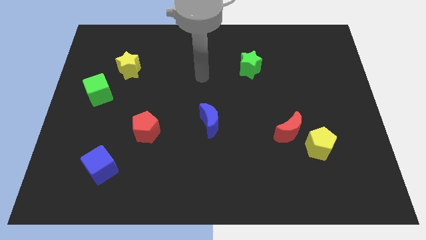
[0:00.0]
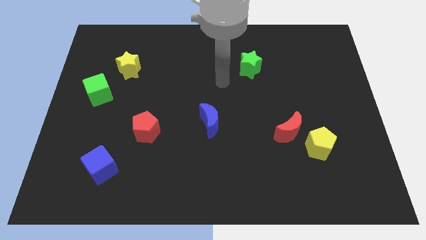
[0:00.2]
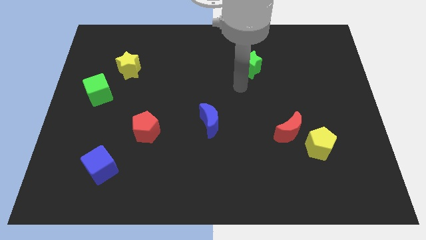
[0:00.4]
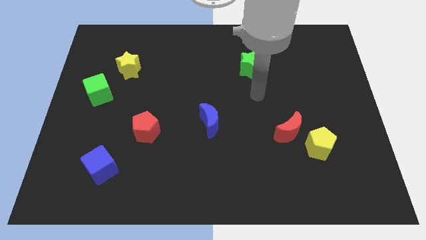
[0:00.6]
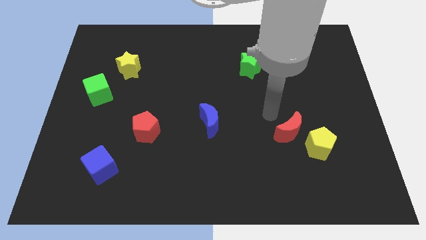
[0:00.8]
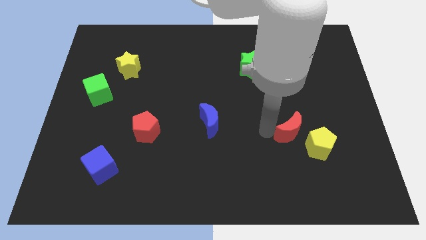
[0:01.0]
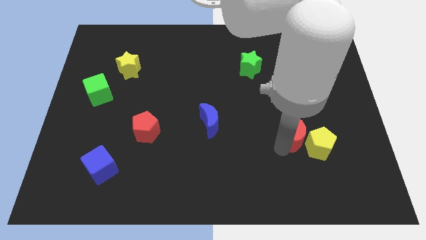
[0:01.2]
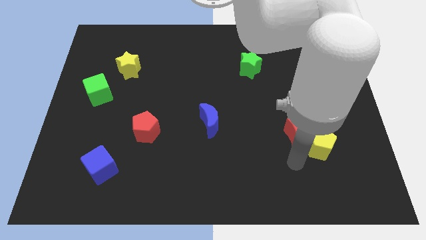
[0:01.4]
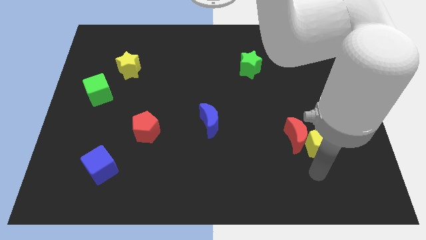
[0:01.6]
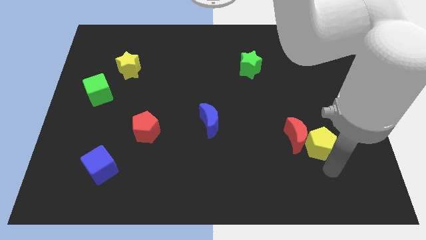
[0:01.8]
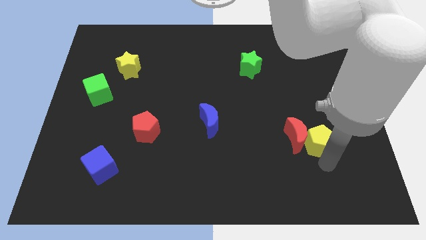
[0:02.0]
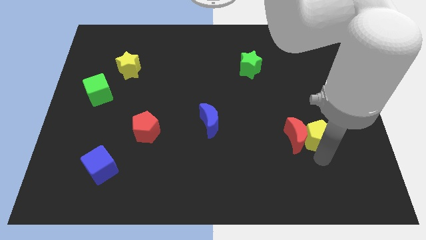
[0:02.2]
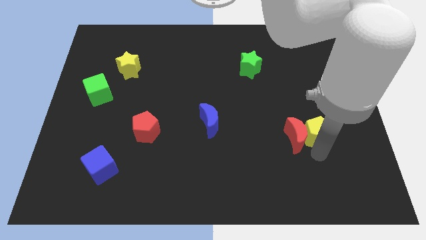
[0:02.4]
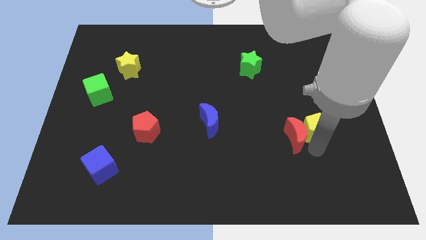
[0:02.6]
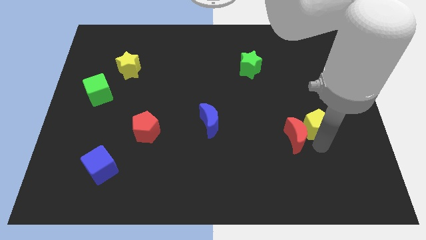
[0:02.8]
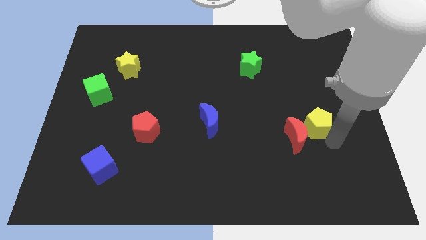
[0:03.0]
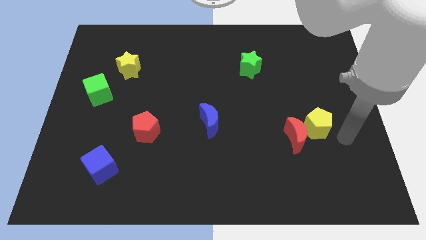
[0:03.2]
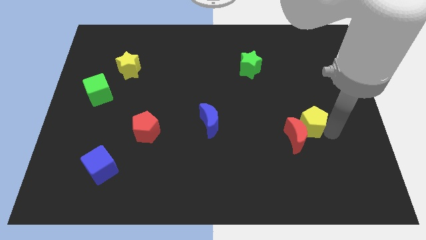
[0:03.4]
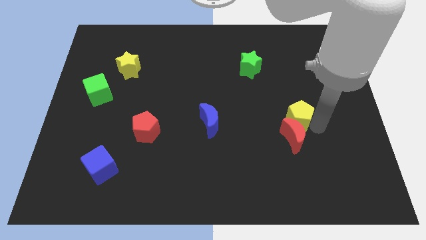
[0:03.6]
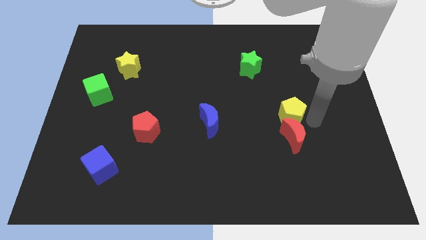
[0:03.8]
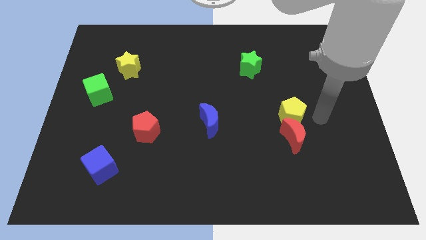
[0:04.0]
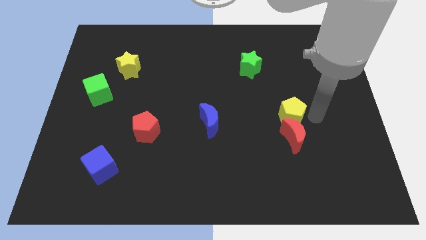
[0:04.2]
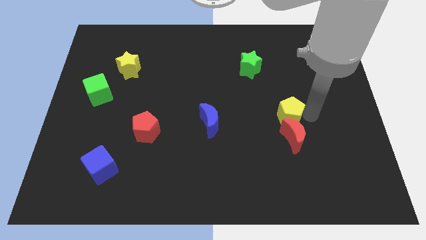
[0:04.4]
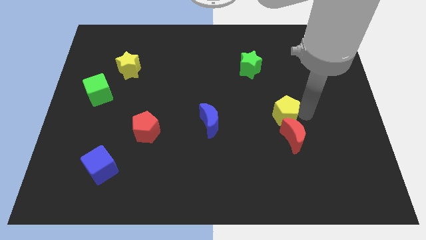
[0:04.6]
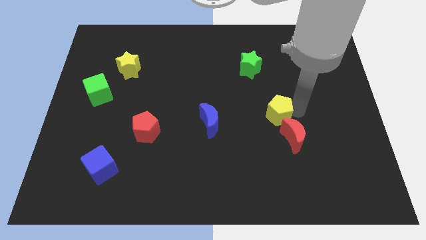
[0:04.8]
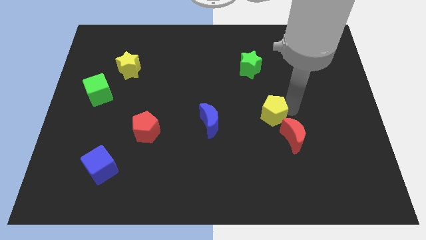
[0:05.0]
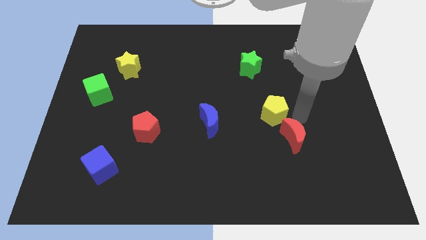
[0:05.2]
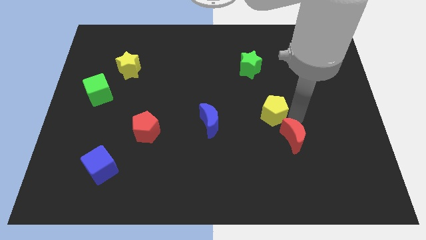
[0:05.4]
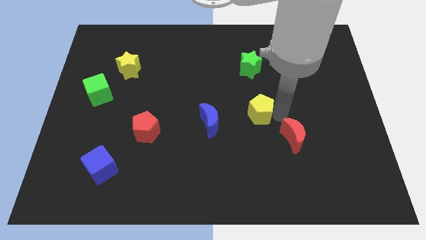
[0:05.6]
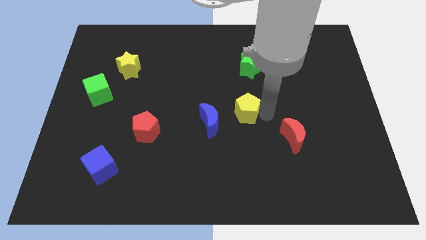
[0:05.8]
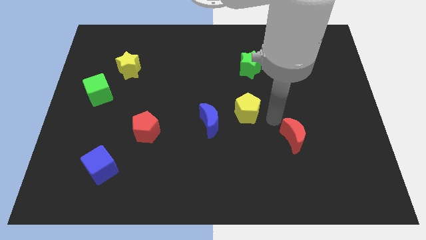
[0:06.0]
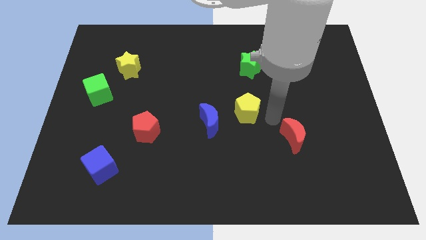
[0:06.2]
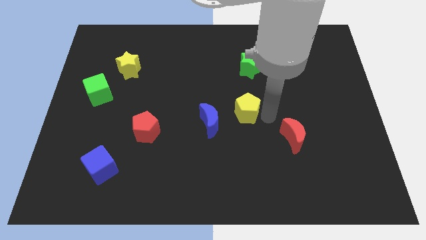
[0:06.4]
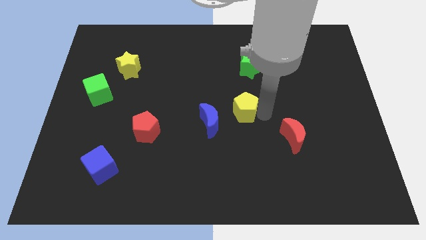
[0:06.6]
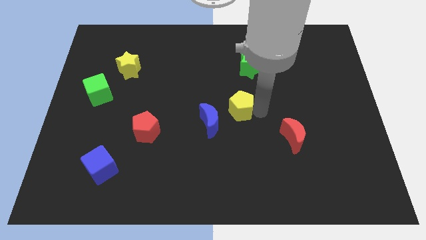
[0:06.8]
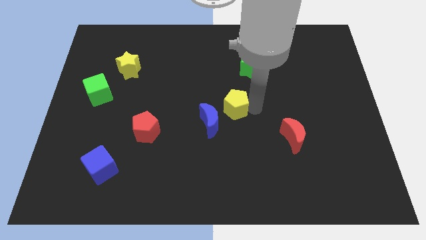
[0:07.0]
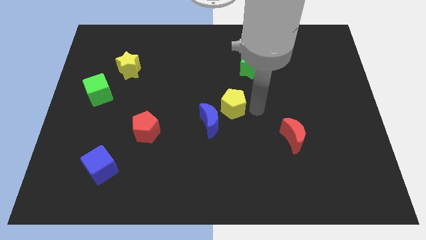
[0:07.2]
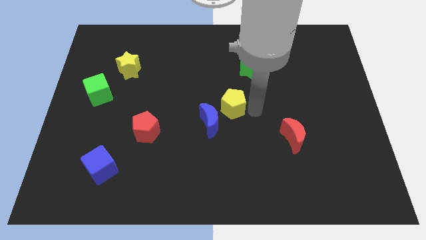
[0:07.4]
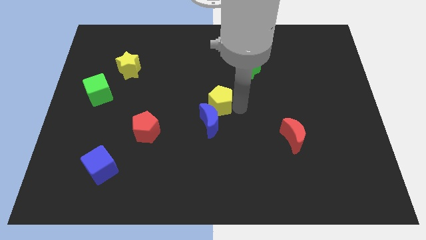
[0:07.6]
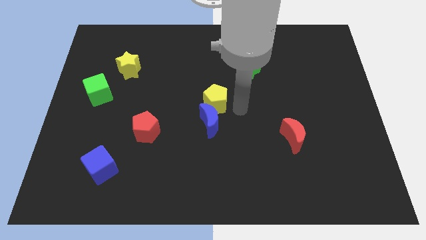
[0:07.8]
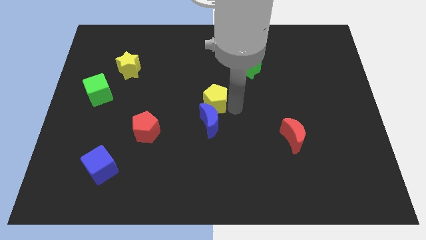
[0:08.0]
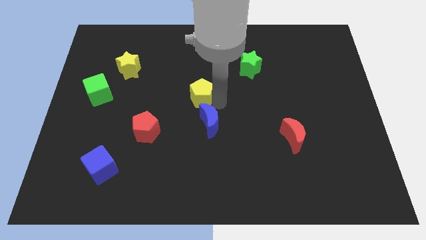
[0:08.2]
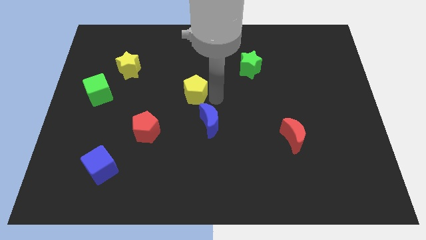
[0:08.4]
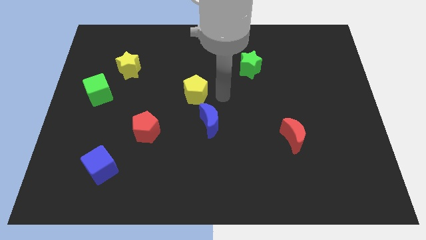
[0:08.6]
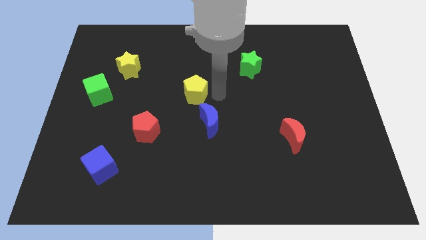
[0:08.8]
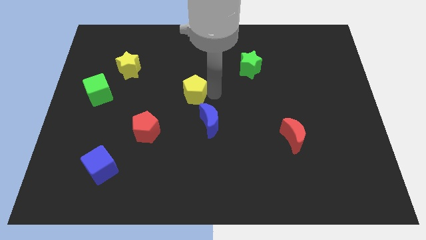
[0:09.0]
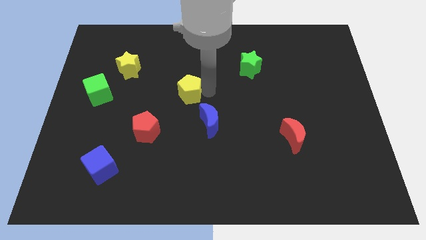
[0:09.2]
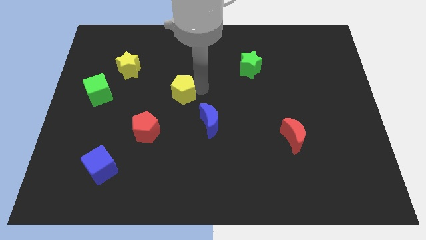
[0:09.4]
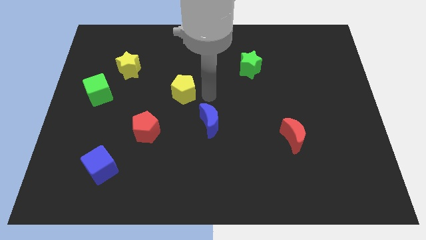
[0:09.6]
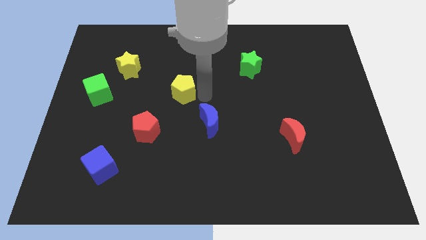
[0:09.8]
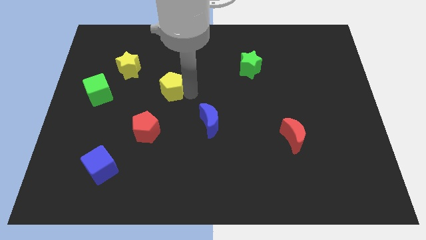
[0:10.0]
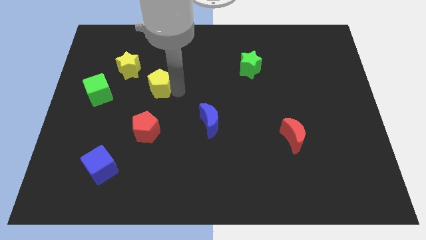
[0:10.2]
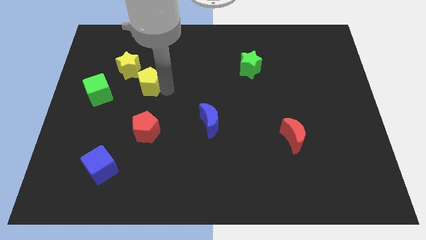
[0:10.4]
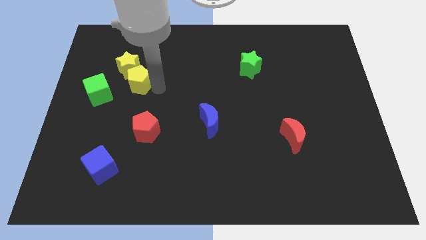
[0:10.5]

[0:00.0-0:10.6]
move the yellow pentagon next to the yellow star

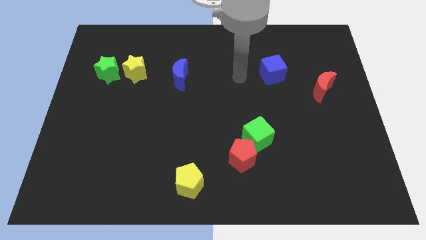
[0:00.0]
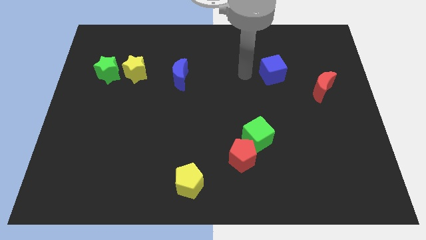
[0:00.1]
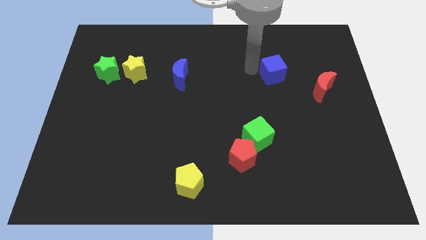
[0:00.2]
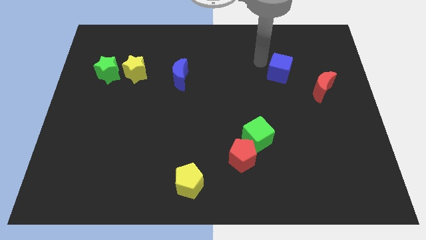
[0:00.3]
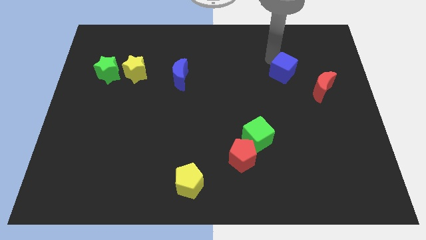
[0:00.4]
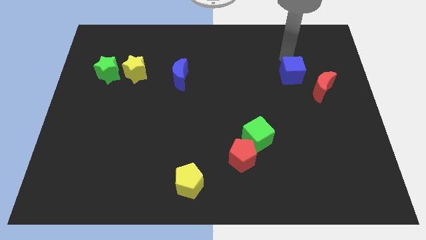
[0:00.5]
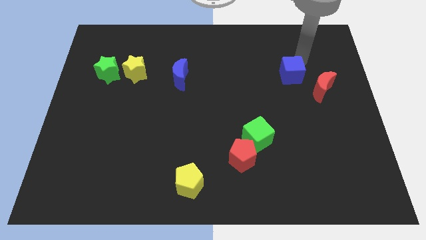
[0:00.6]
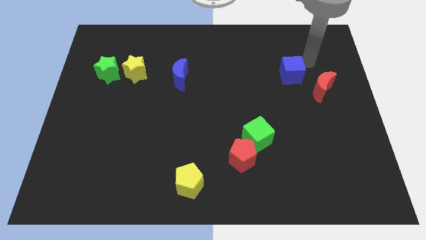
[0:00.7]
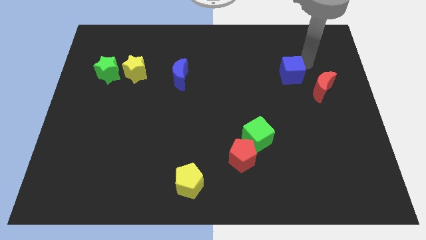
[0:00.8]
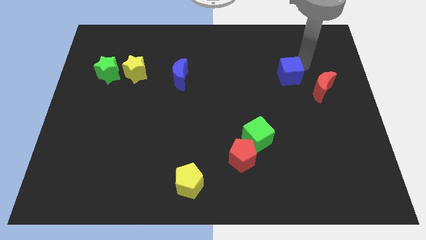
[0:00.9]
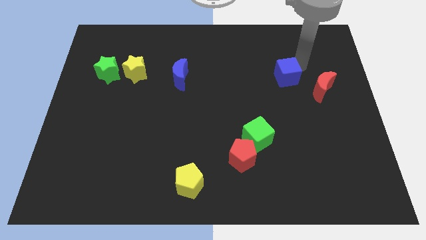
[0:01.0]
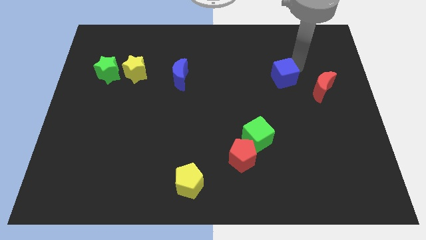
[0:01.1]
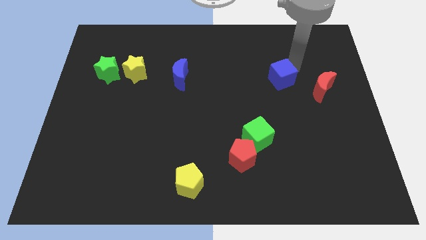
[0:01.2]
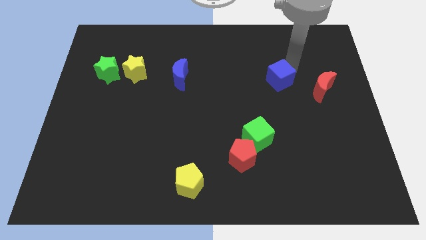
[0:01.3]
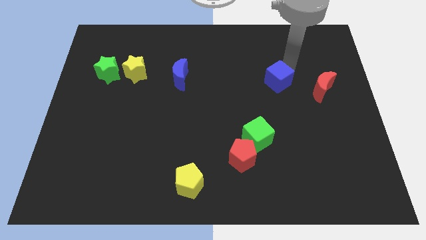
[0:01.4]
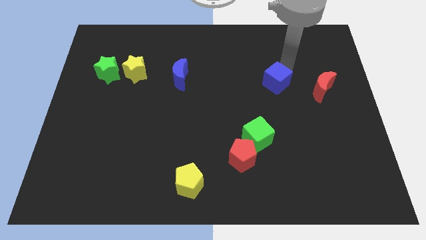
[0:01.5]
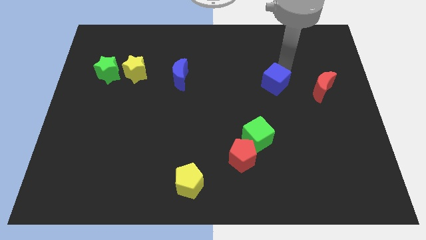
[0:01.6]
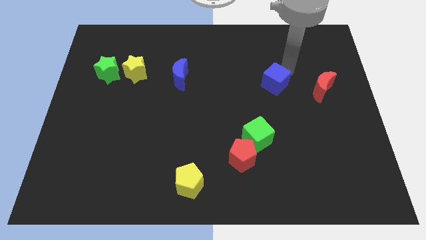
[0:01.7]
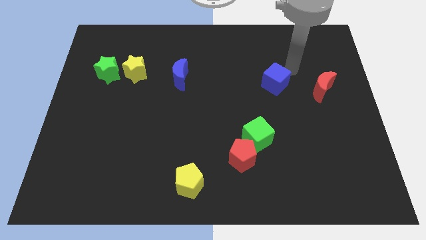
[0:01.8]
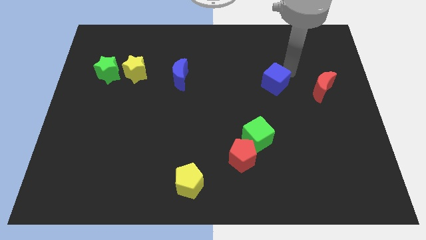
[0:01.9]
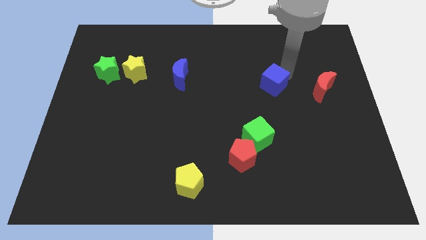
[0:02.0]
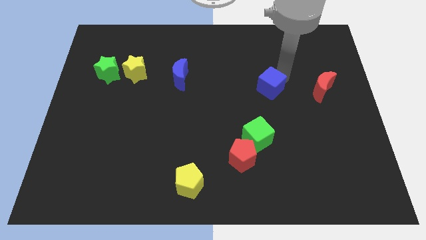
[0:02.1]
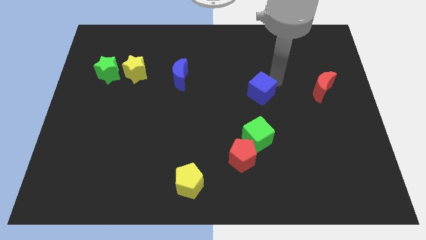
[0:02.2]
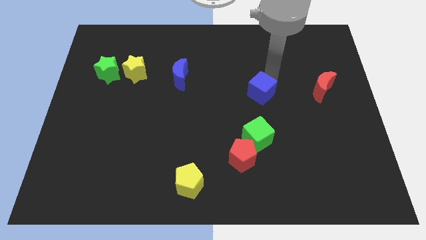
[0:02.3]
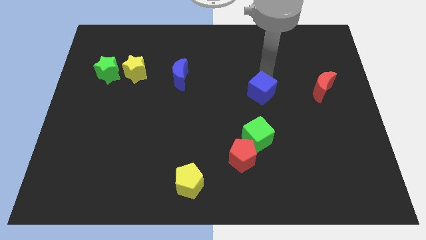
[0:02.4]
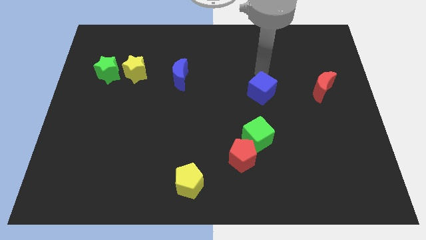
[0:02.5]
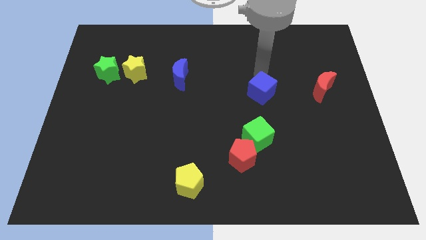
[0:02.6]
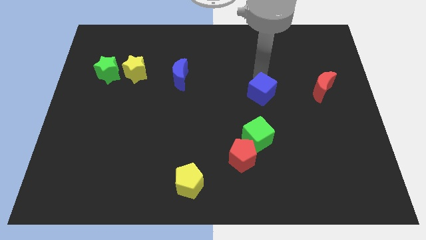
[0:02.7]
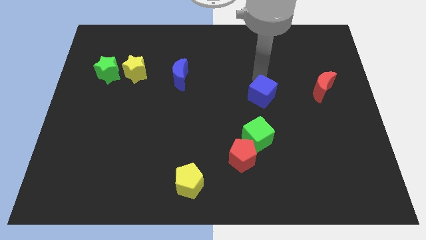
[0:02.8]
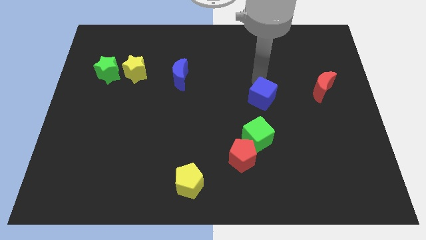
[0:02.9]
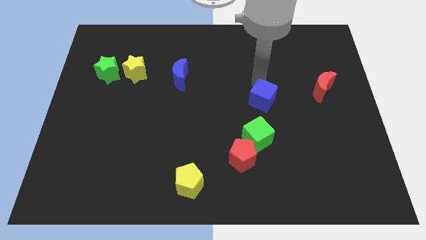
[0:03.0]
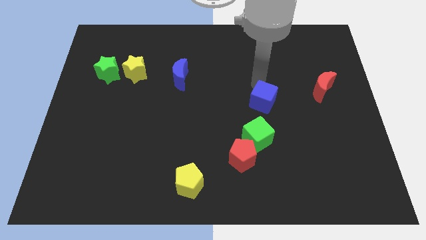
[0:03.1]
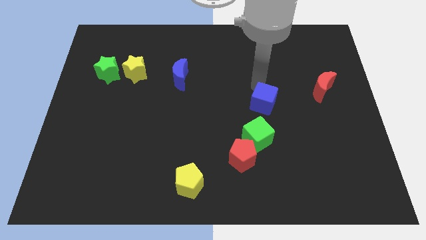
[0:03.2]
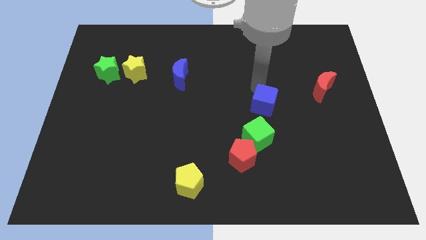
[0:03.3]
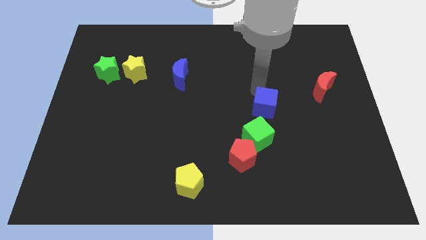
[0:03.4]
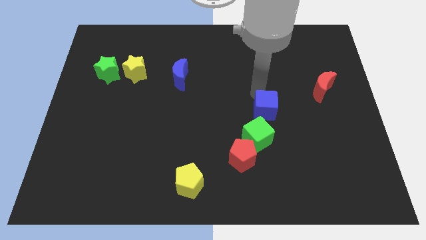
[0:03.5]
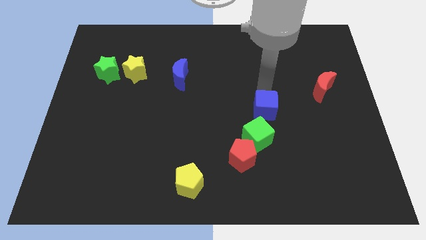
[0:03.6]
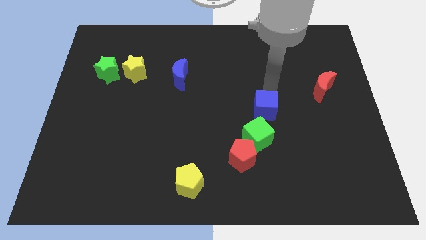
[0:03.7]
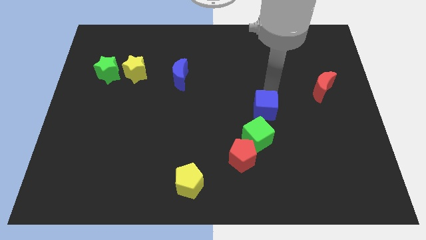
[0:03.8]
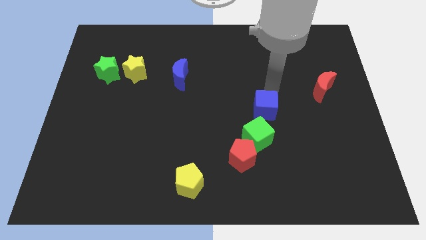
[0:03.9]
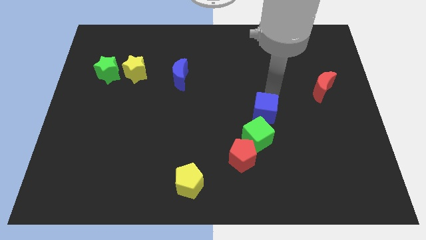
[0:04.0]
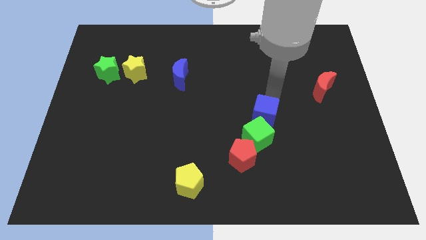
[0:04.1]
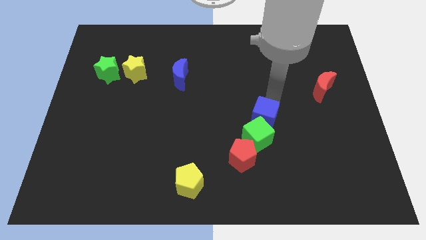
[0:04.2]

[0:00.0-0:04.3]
put the blue cube to the green cube
